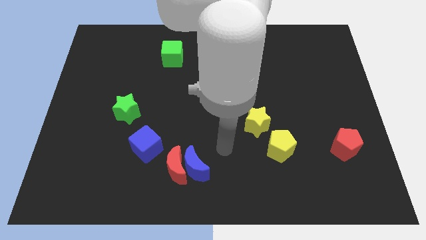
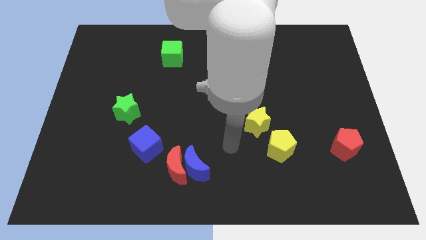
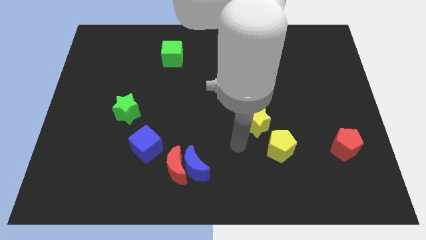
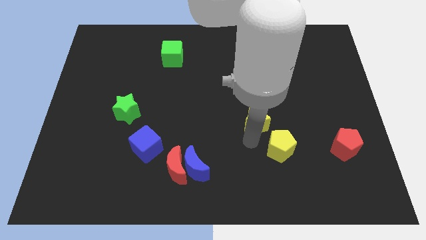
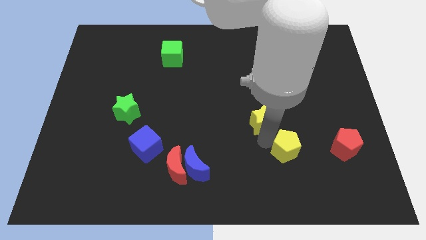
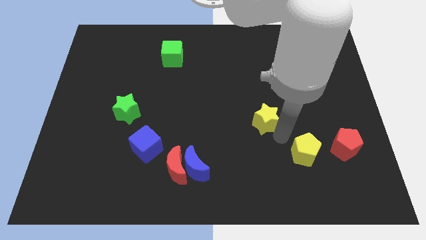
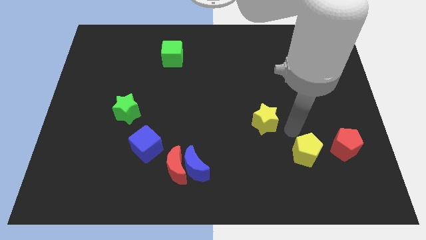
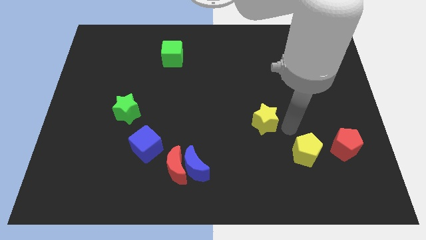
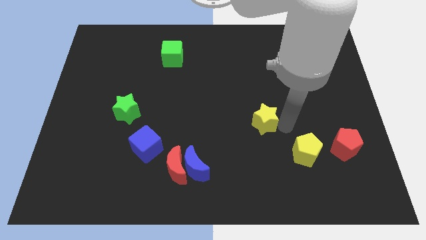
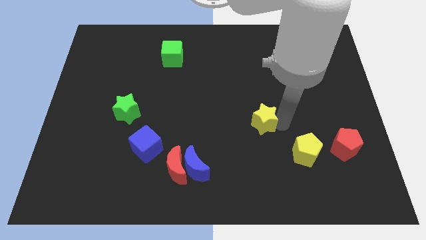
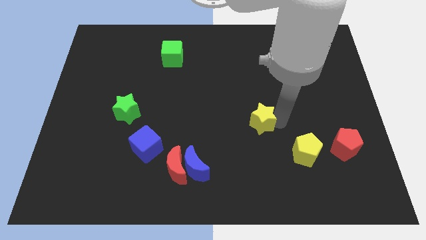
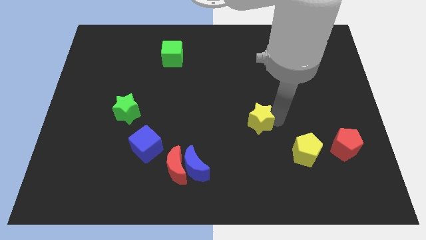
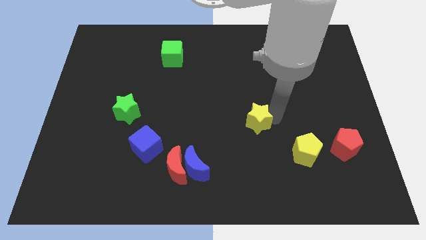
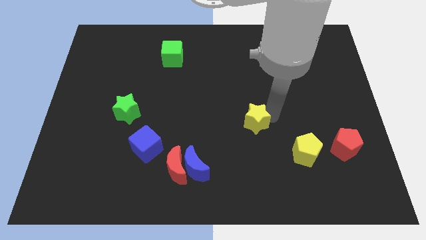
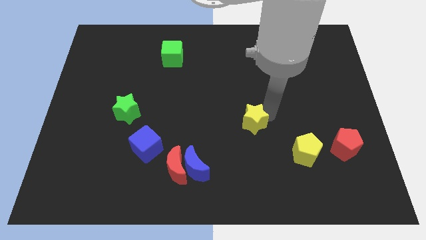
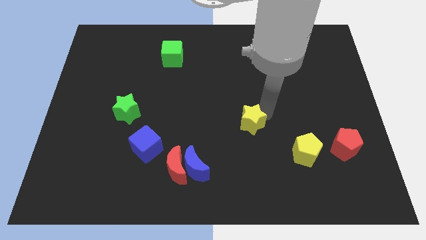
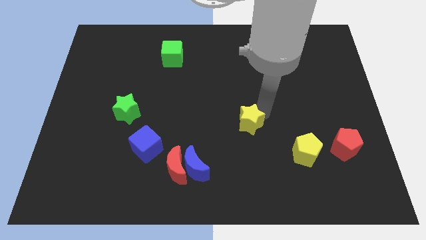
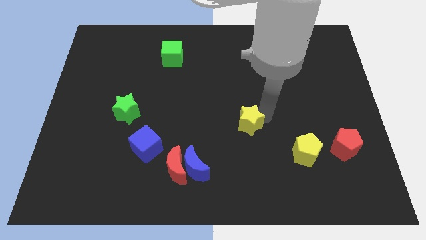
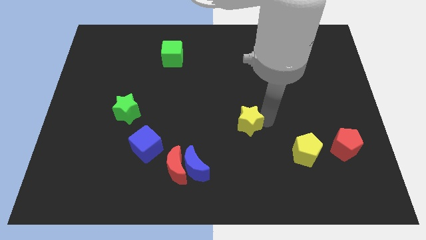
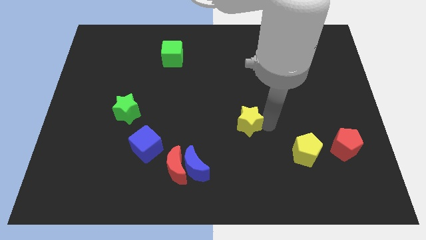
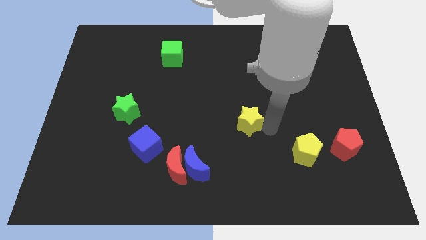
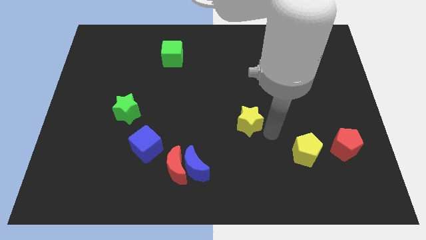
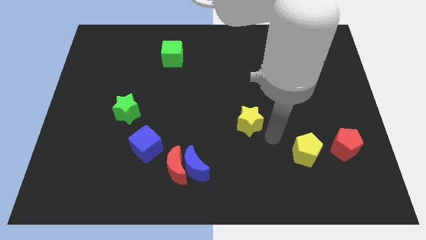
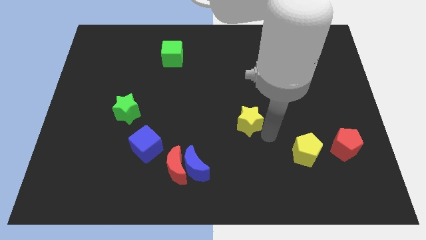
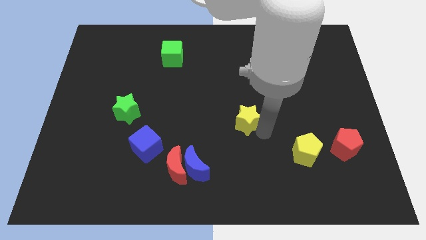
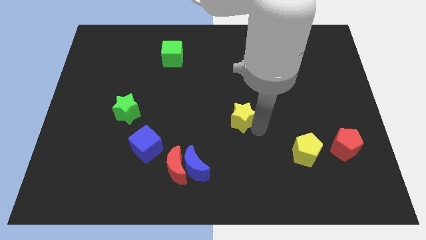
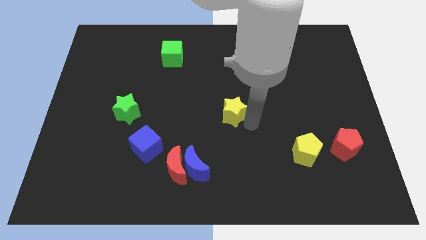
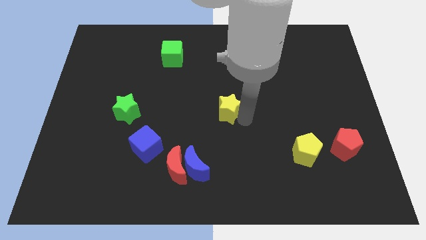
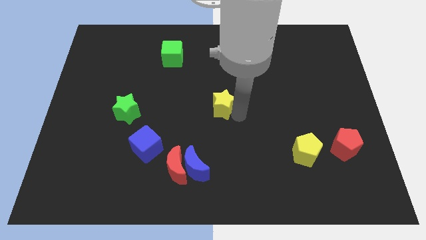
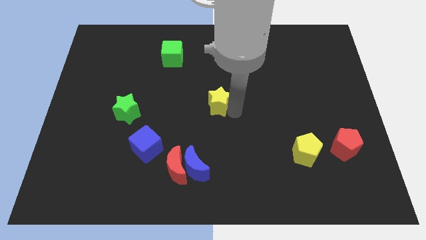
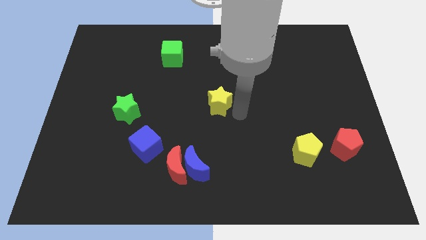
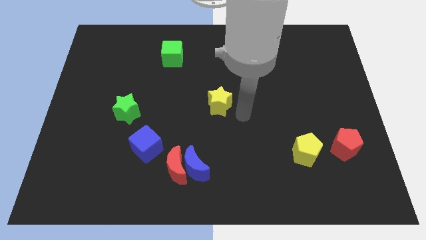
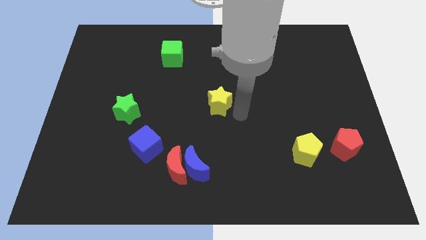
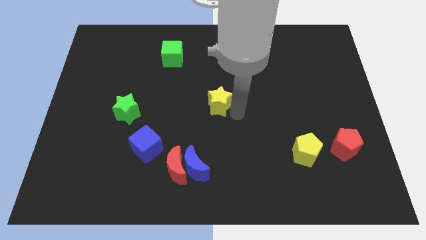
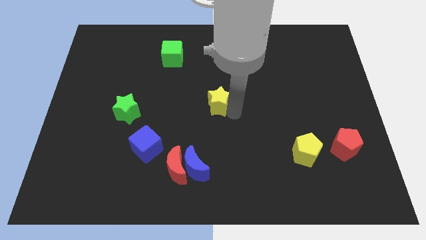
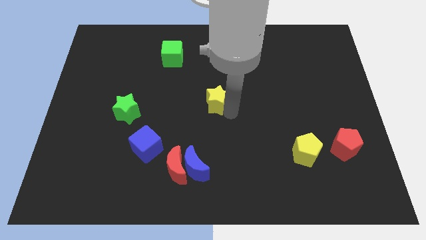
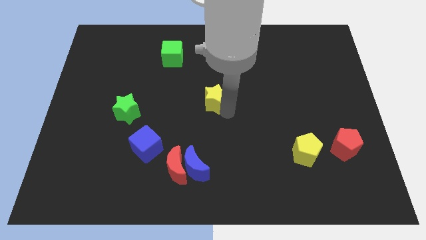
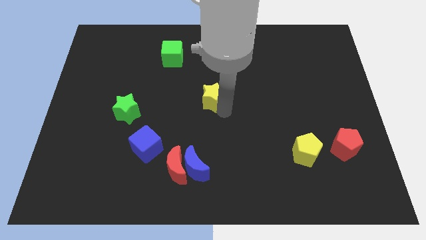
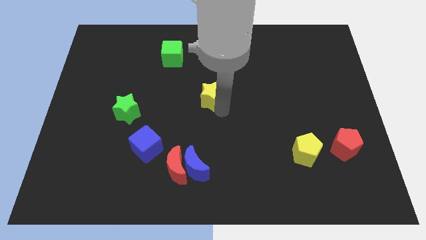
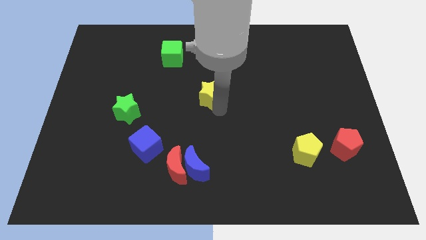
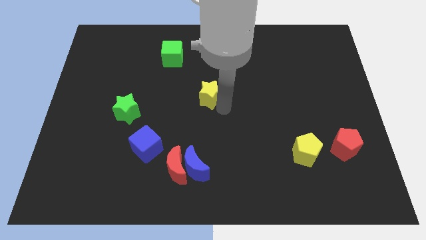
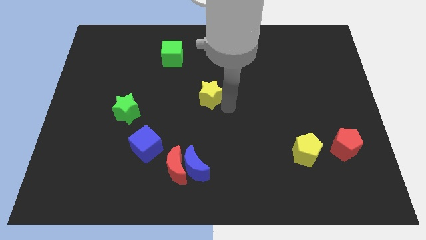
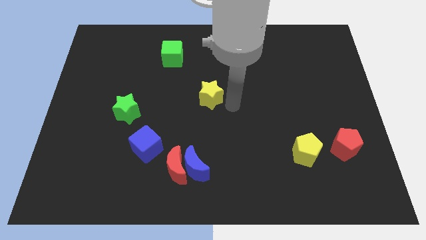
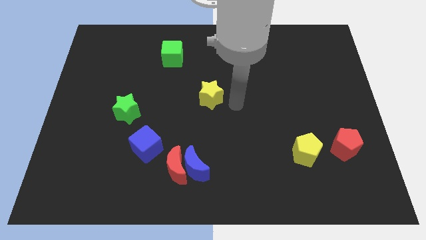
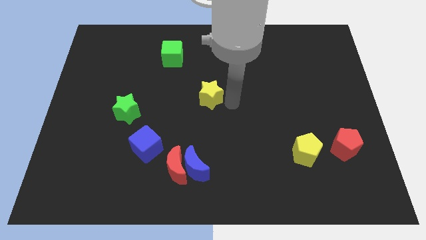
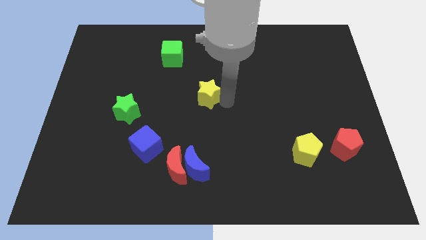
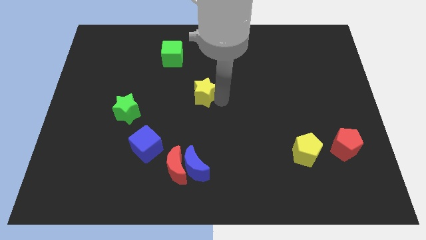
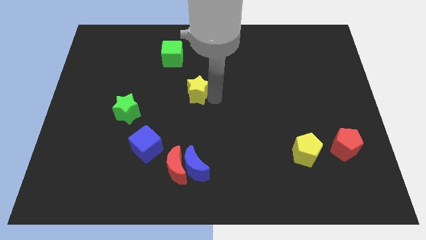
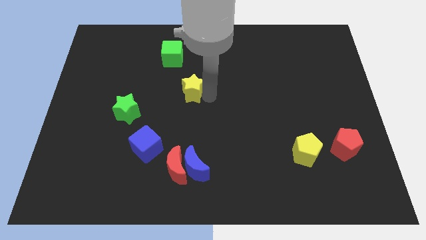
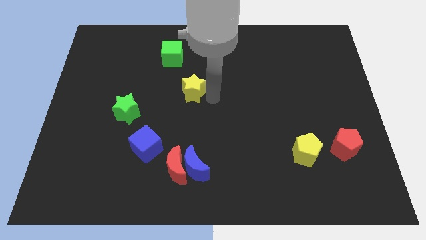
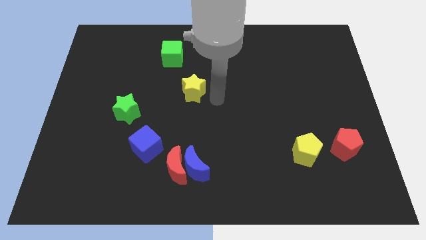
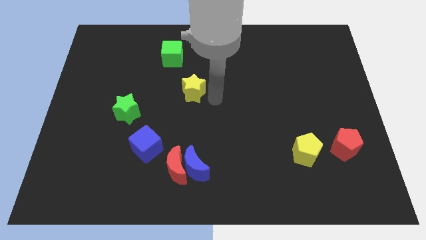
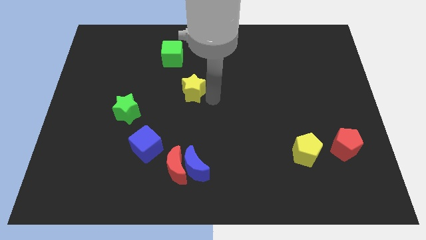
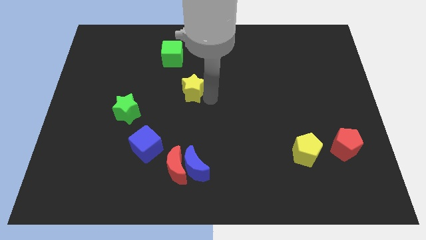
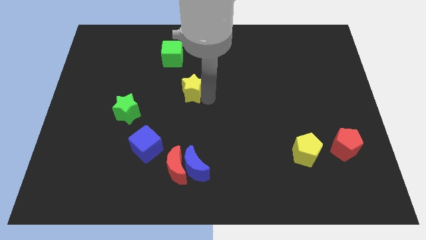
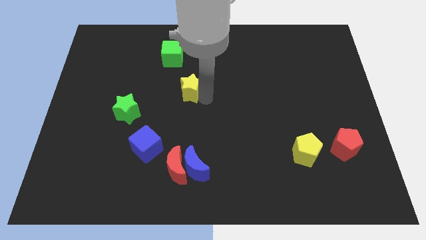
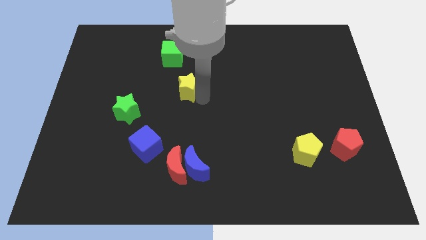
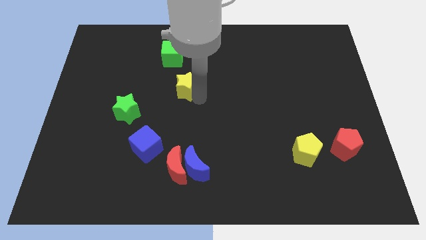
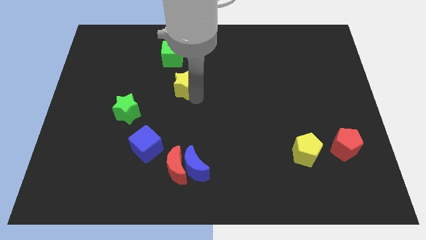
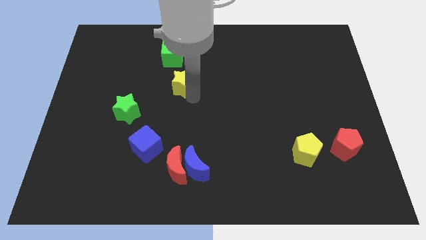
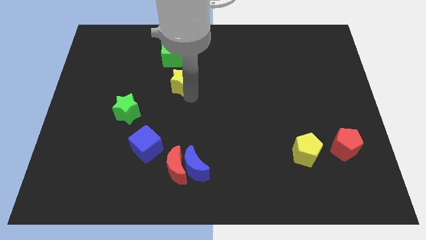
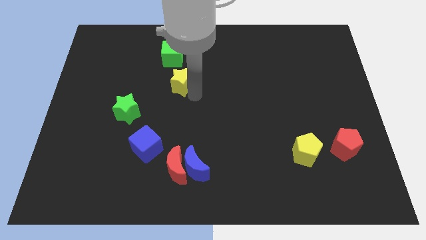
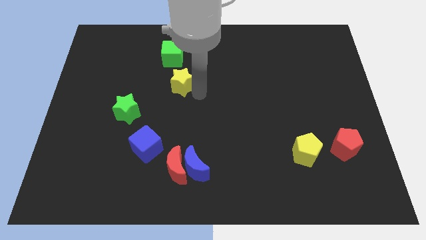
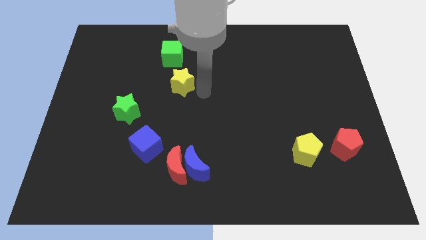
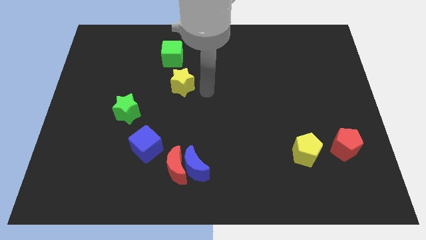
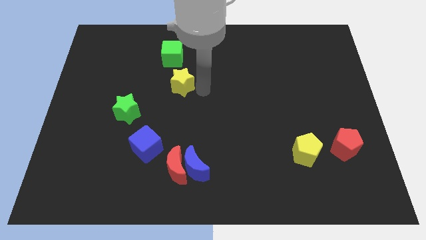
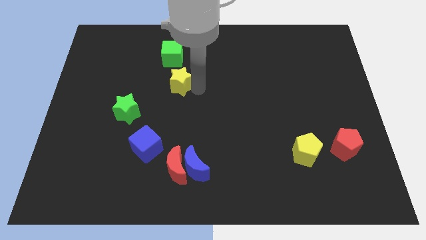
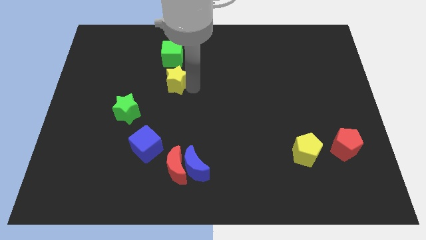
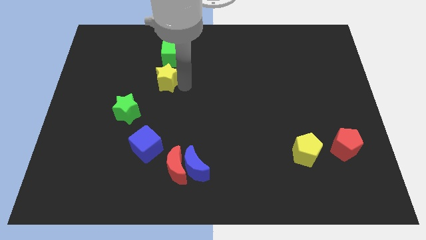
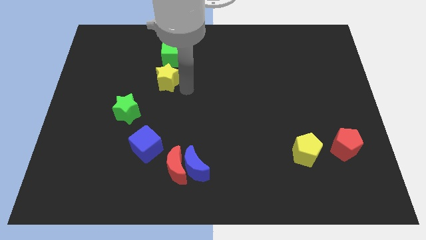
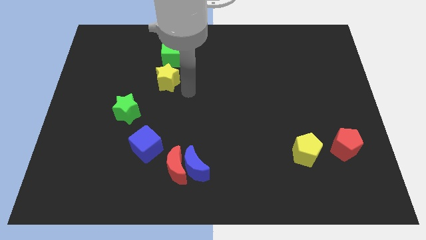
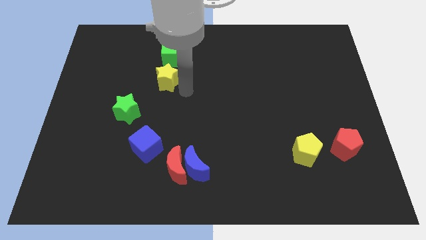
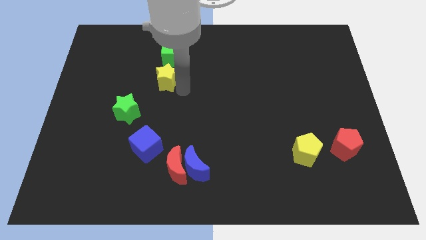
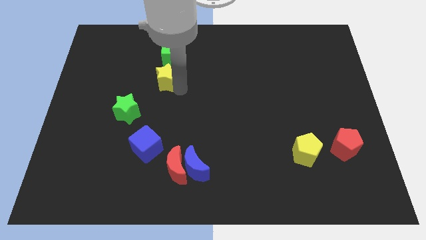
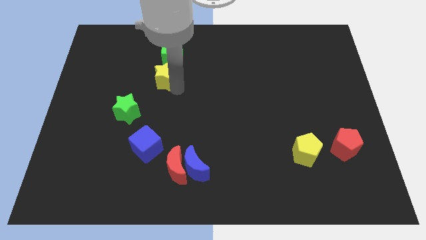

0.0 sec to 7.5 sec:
slide the yellow star diagonally down and to the left of the green cube
